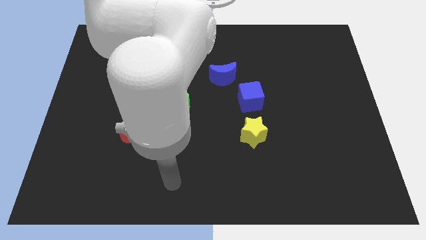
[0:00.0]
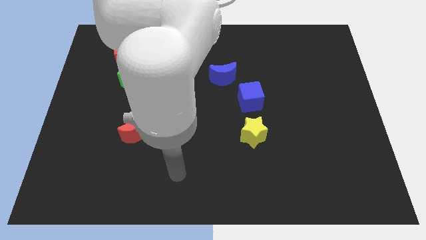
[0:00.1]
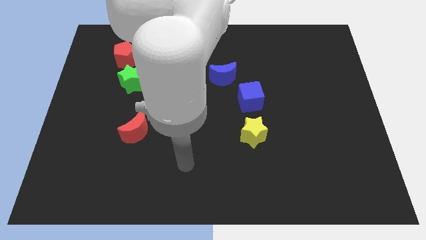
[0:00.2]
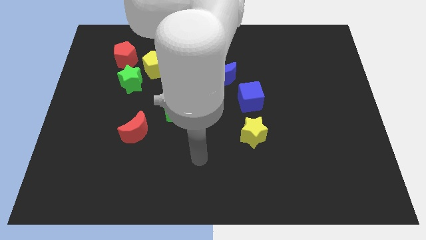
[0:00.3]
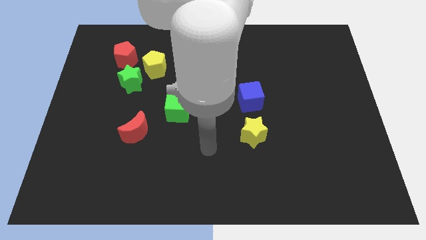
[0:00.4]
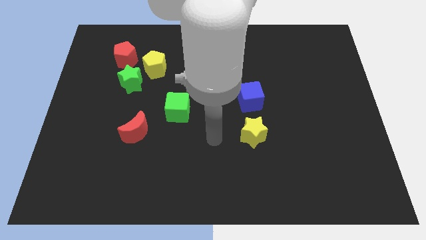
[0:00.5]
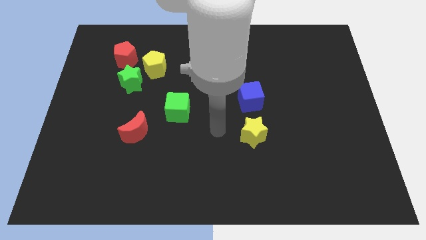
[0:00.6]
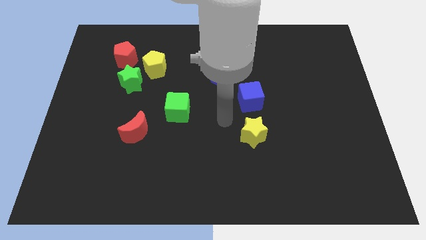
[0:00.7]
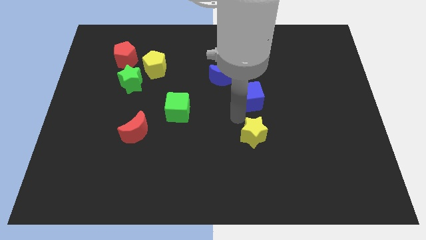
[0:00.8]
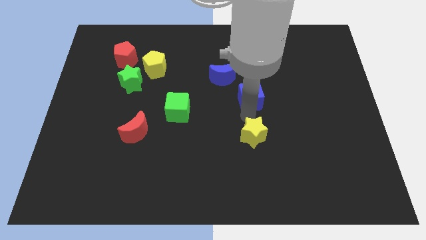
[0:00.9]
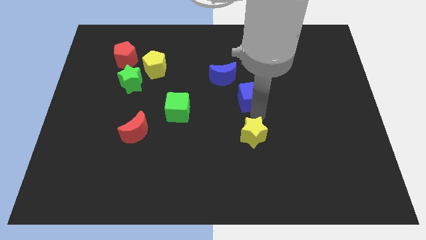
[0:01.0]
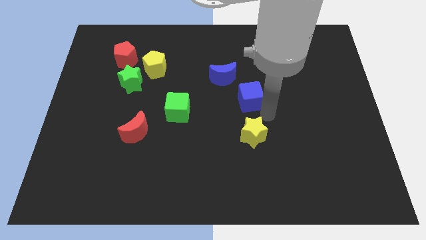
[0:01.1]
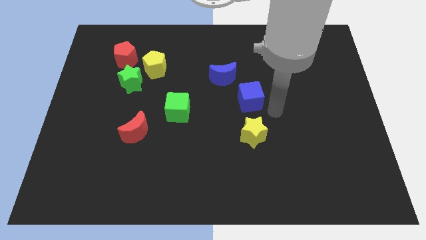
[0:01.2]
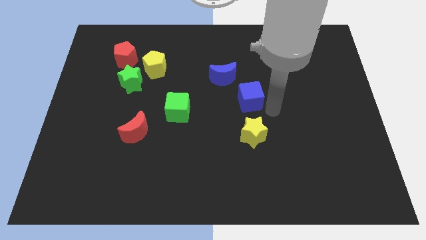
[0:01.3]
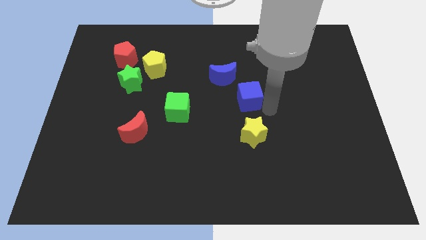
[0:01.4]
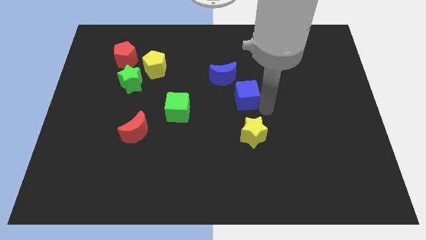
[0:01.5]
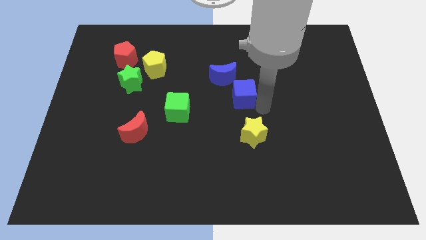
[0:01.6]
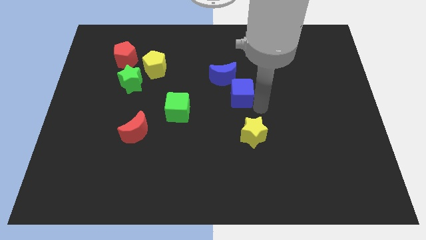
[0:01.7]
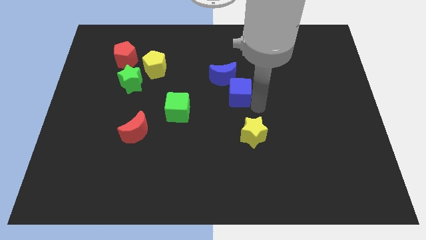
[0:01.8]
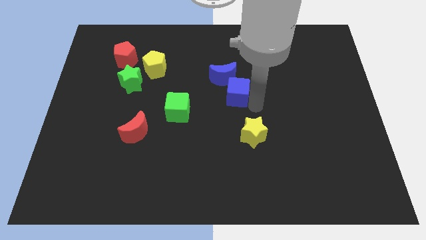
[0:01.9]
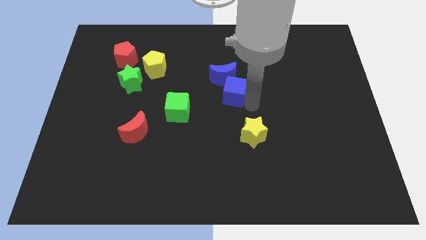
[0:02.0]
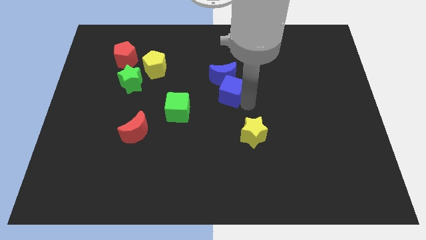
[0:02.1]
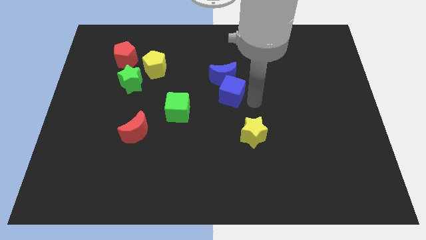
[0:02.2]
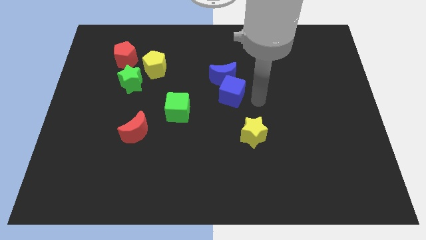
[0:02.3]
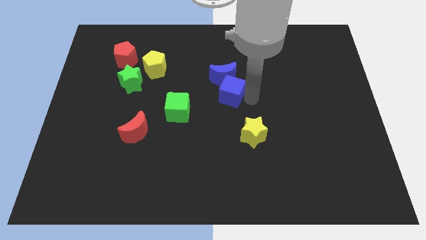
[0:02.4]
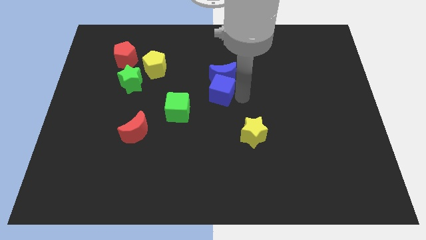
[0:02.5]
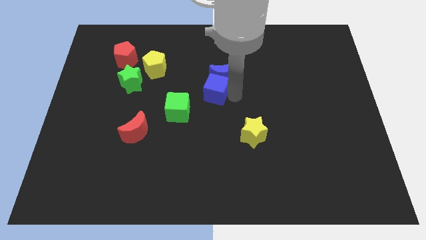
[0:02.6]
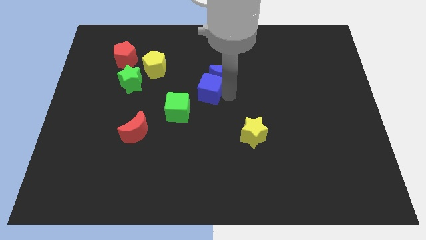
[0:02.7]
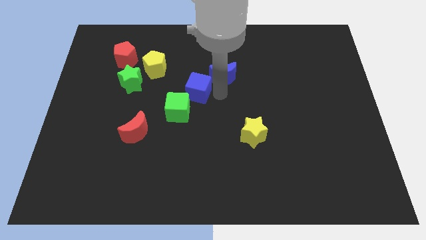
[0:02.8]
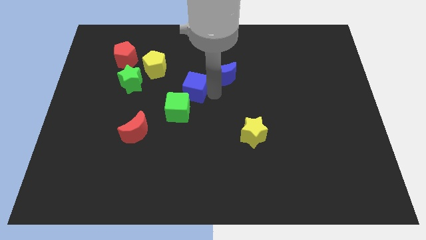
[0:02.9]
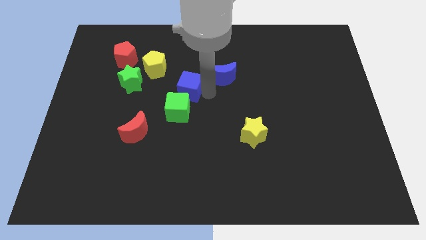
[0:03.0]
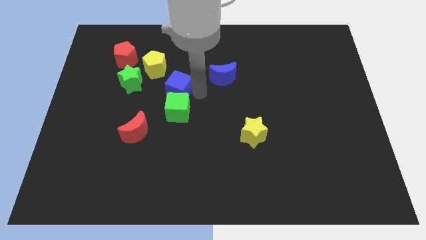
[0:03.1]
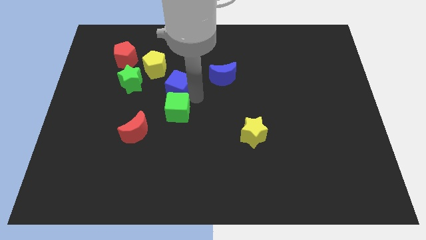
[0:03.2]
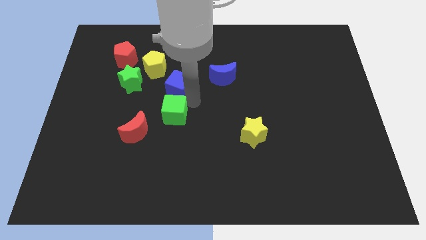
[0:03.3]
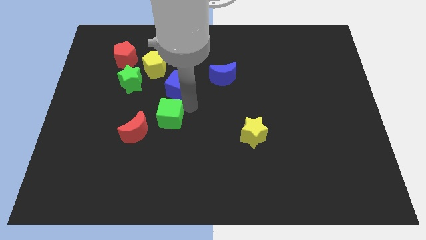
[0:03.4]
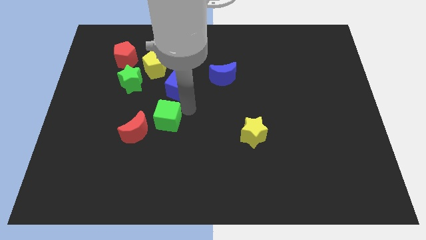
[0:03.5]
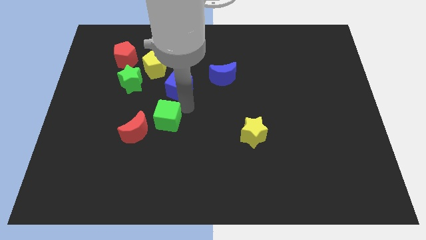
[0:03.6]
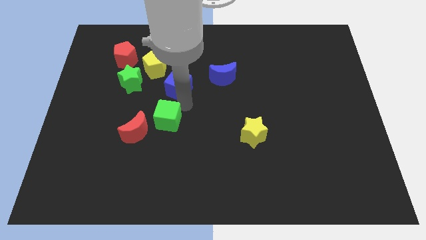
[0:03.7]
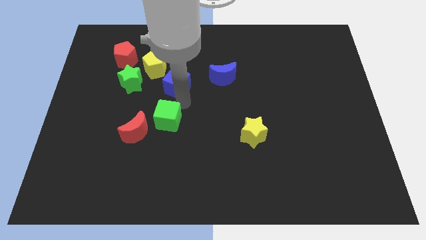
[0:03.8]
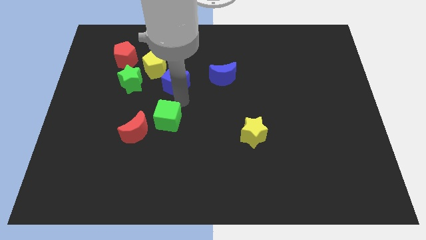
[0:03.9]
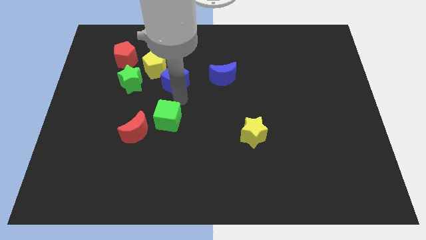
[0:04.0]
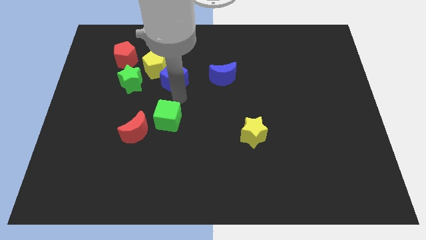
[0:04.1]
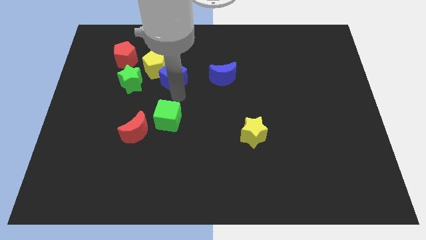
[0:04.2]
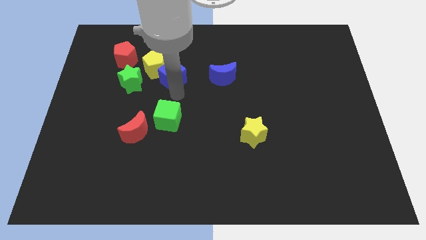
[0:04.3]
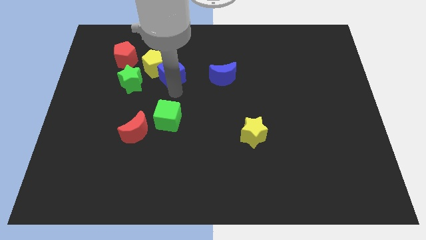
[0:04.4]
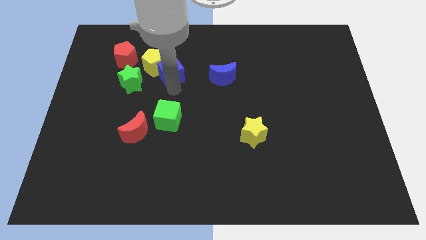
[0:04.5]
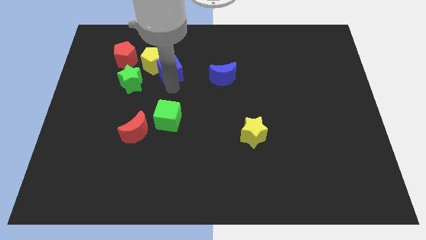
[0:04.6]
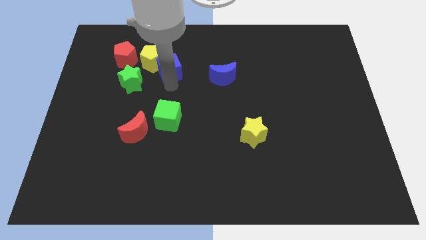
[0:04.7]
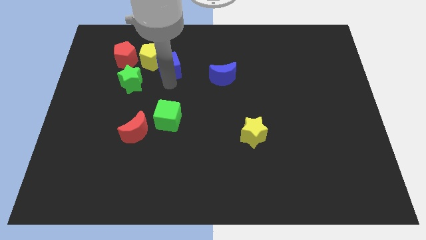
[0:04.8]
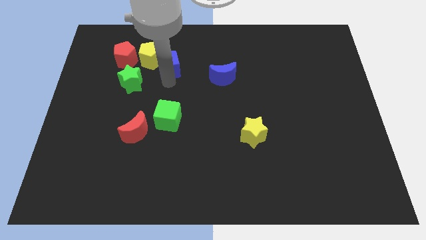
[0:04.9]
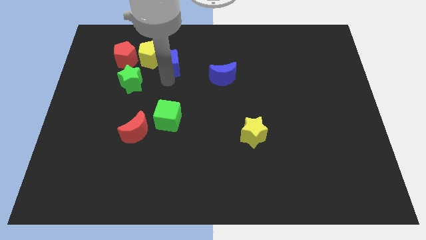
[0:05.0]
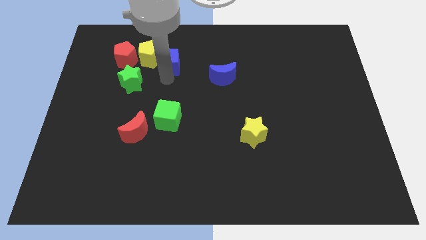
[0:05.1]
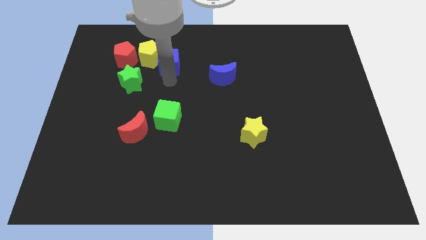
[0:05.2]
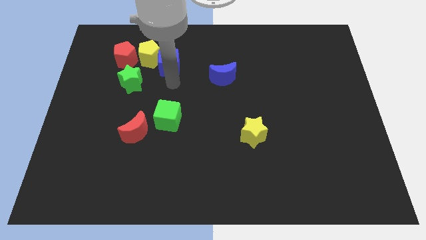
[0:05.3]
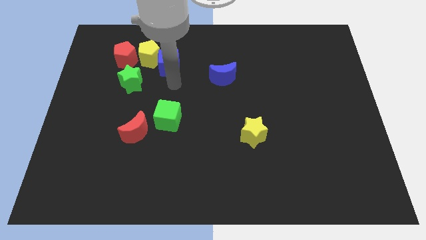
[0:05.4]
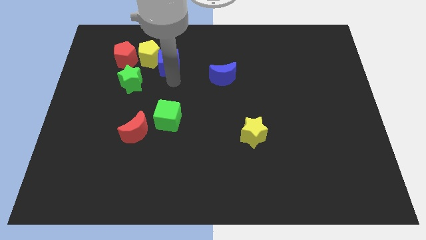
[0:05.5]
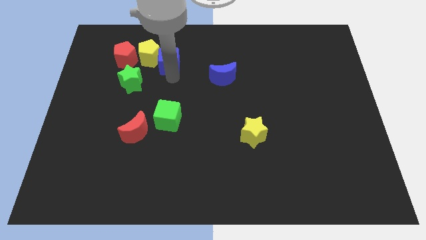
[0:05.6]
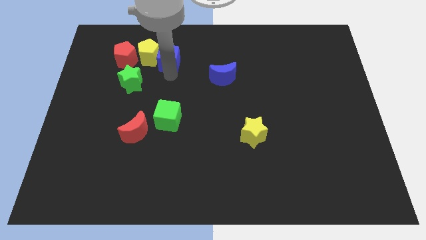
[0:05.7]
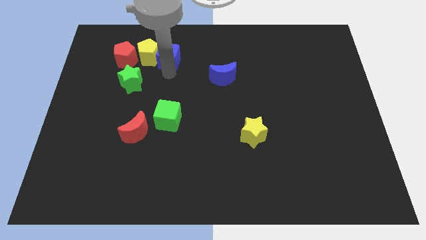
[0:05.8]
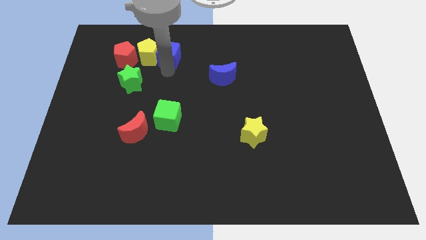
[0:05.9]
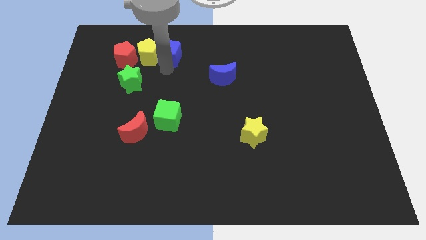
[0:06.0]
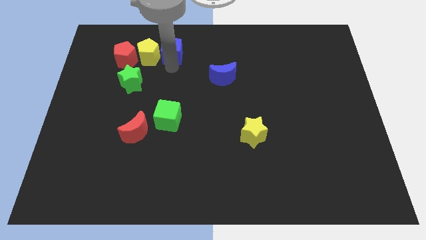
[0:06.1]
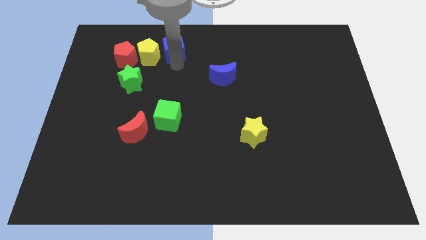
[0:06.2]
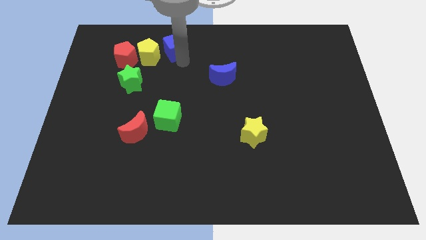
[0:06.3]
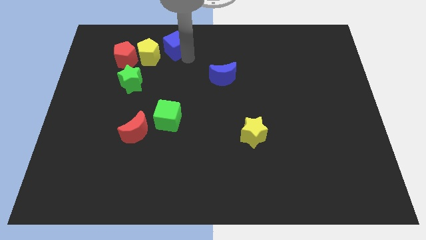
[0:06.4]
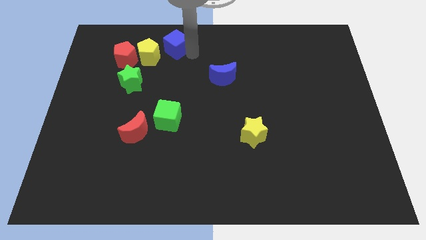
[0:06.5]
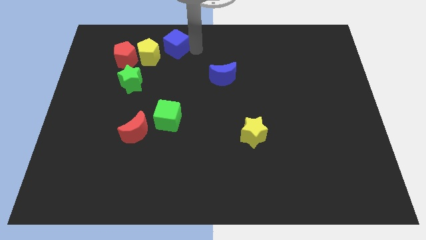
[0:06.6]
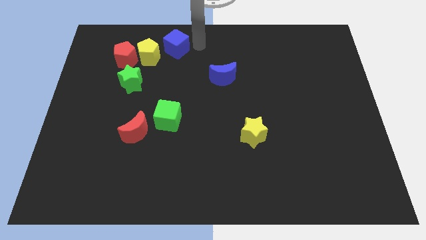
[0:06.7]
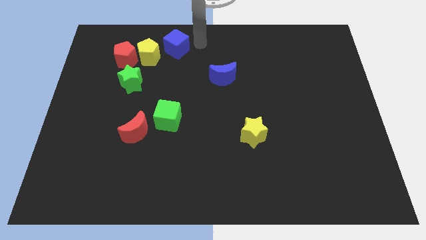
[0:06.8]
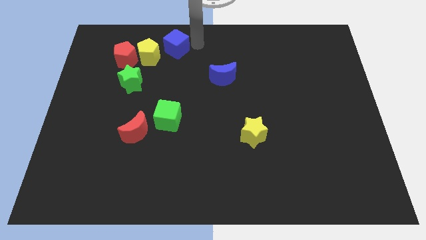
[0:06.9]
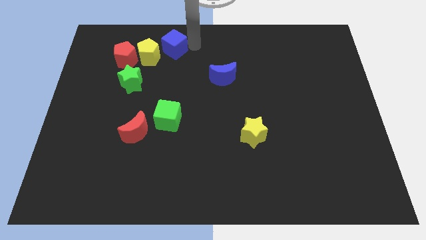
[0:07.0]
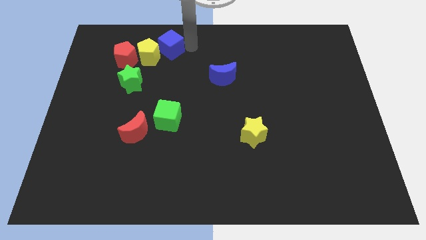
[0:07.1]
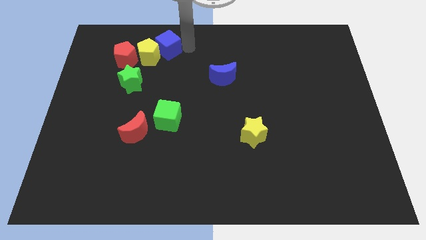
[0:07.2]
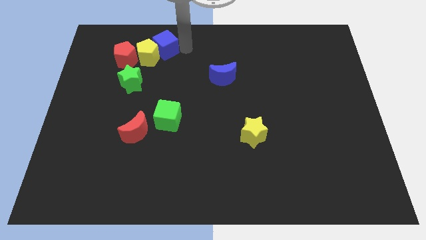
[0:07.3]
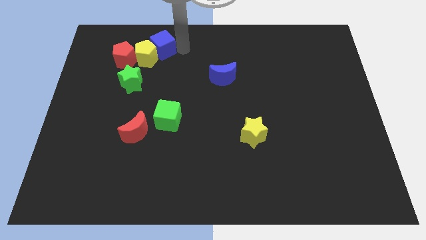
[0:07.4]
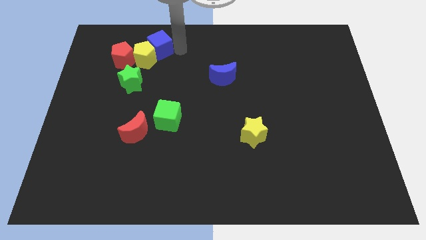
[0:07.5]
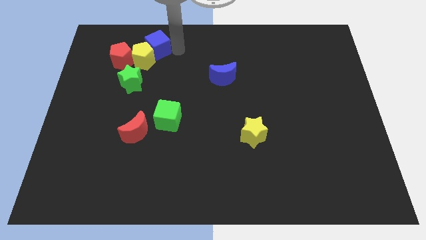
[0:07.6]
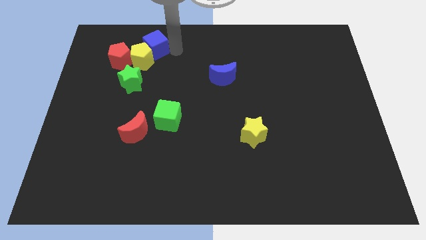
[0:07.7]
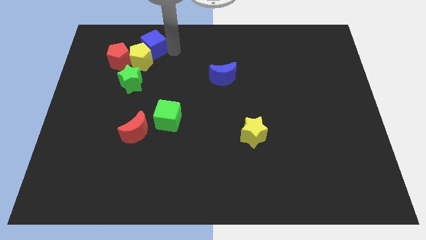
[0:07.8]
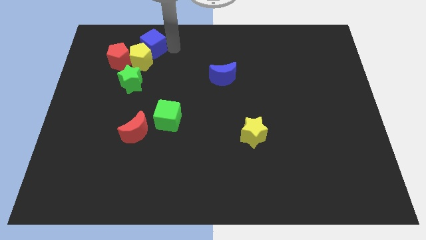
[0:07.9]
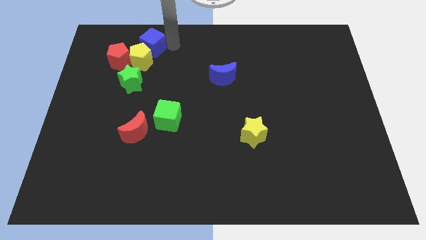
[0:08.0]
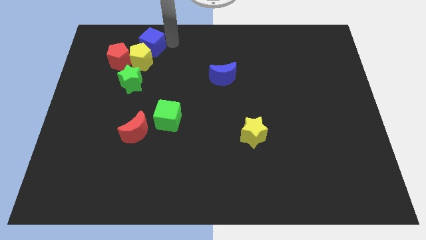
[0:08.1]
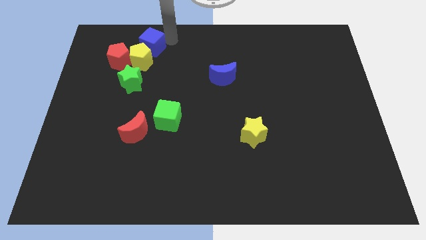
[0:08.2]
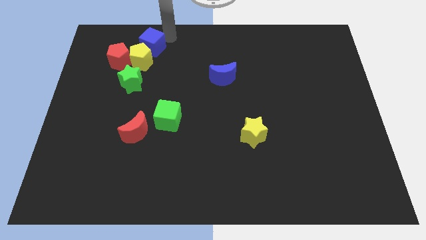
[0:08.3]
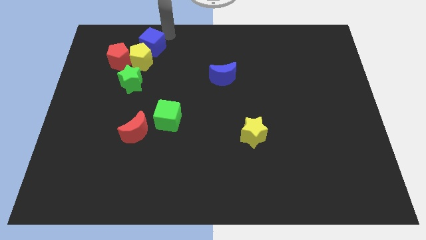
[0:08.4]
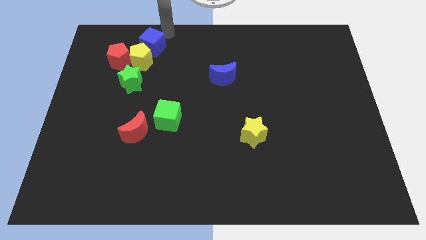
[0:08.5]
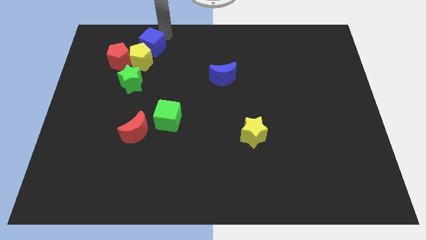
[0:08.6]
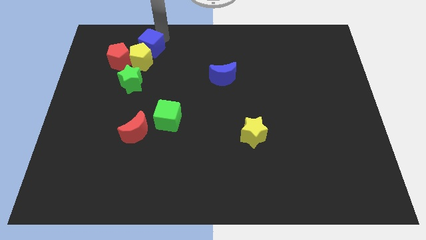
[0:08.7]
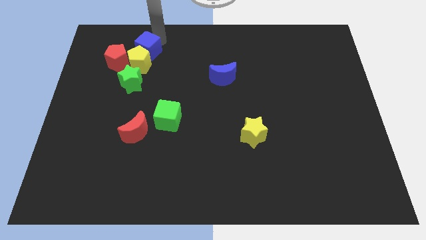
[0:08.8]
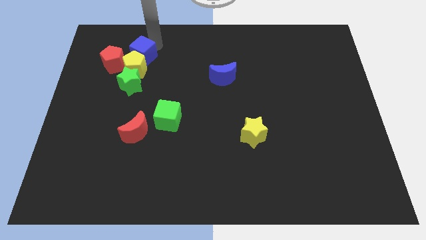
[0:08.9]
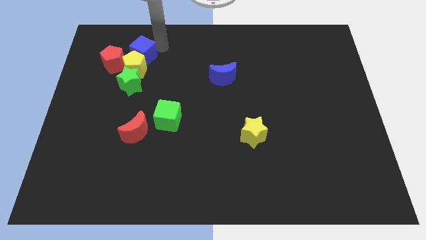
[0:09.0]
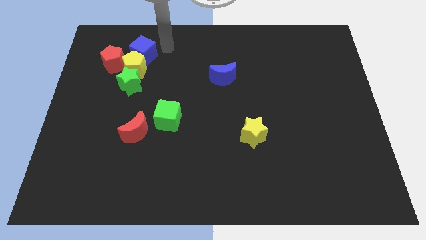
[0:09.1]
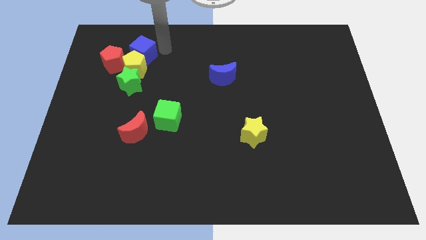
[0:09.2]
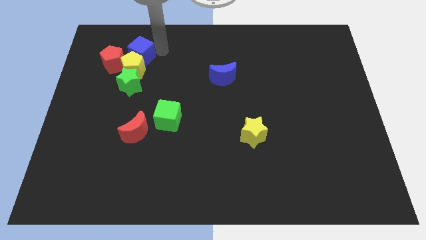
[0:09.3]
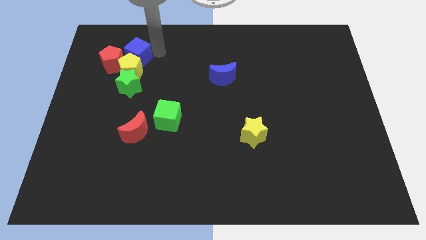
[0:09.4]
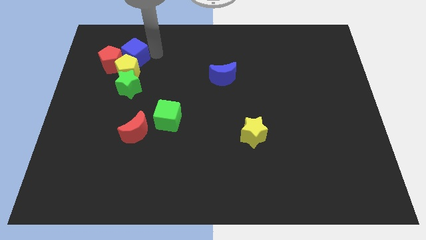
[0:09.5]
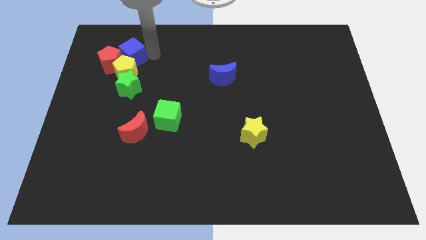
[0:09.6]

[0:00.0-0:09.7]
put the blue cube towards the red pentagon
